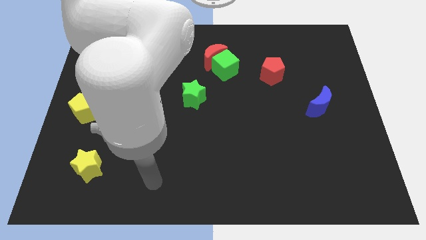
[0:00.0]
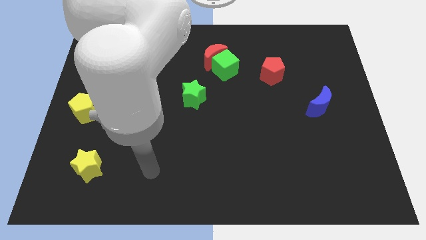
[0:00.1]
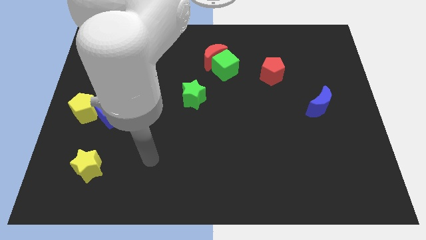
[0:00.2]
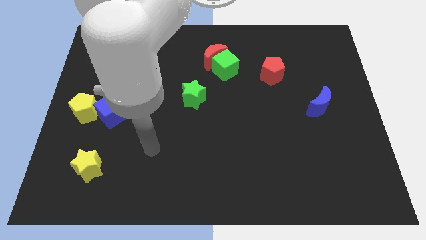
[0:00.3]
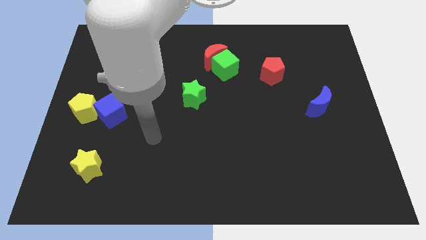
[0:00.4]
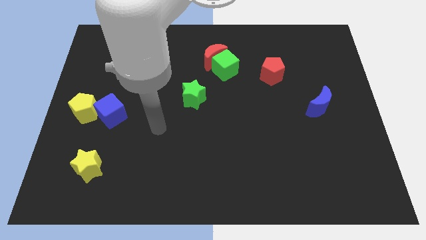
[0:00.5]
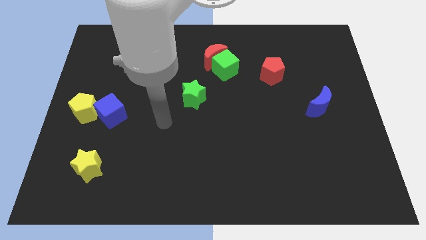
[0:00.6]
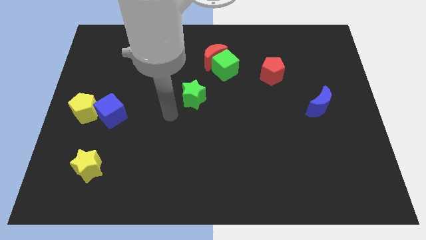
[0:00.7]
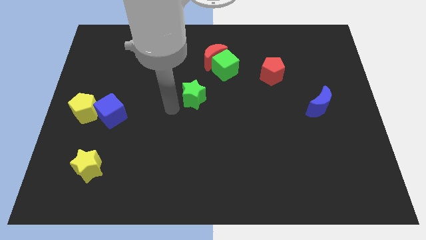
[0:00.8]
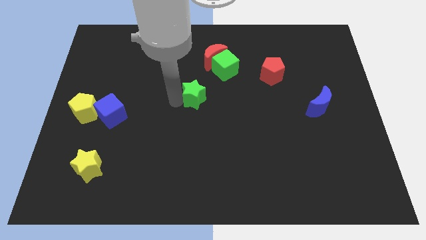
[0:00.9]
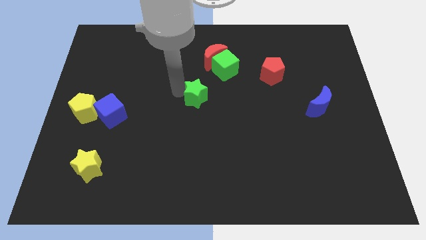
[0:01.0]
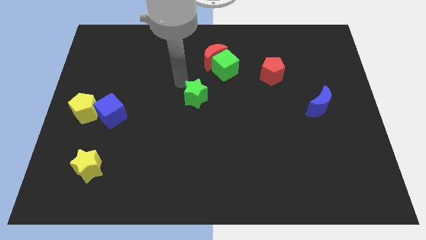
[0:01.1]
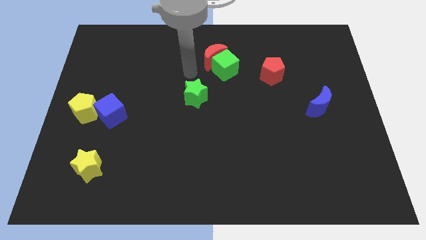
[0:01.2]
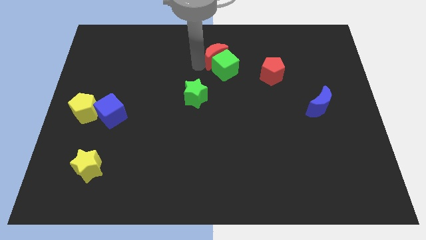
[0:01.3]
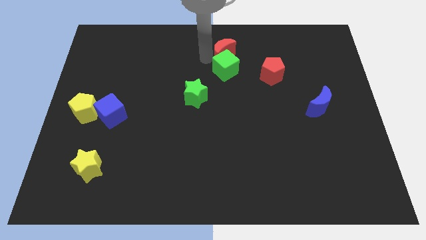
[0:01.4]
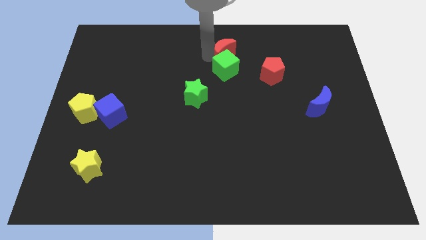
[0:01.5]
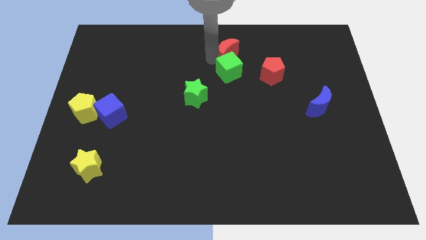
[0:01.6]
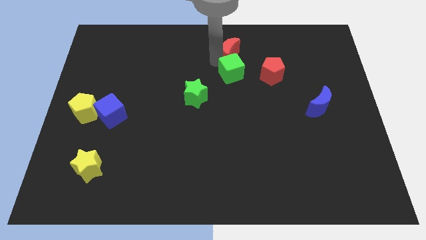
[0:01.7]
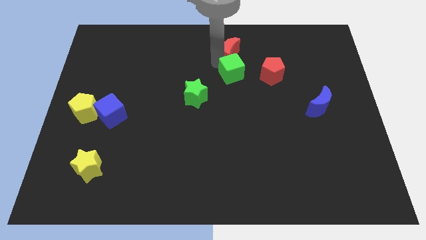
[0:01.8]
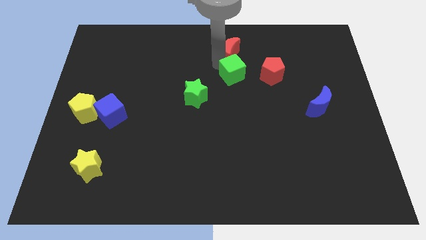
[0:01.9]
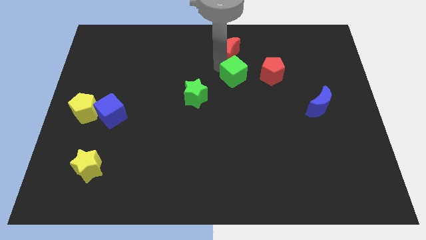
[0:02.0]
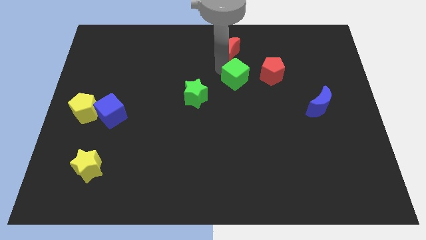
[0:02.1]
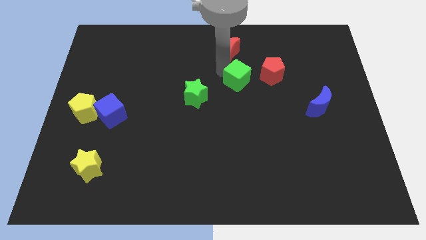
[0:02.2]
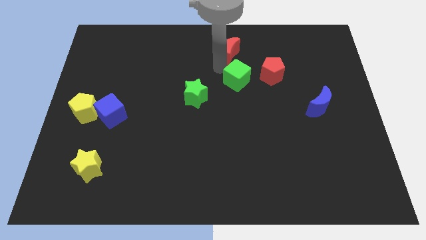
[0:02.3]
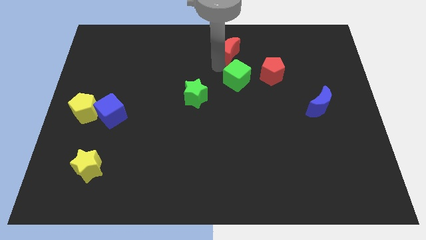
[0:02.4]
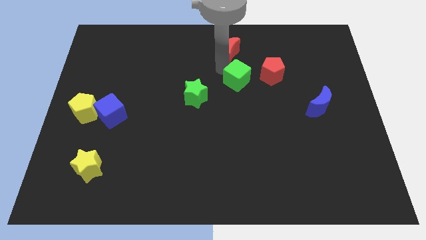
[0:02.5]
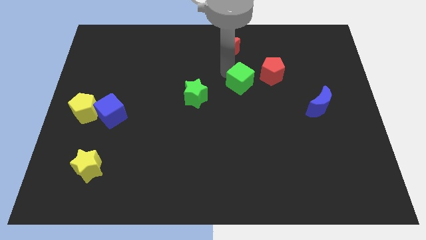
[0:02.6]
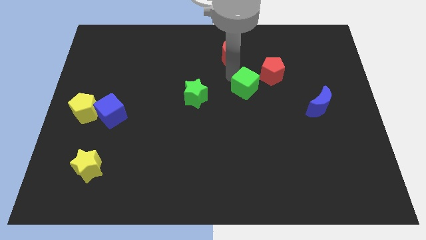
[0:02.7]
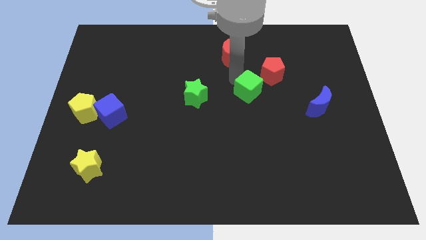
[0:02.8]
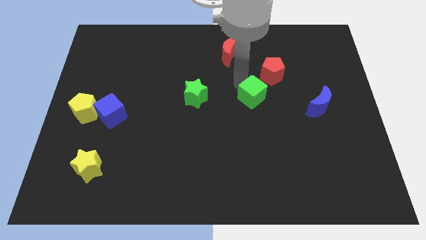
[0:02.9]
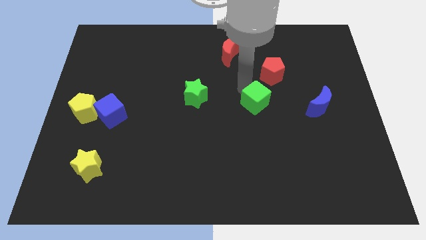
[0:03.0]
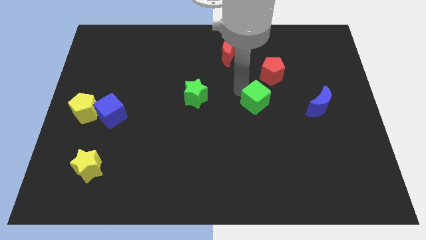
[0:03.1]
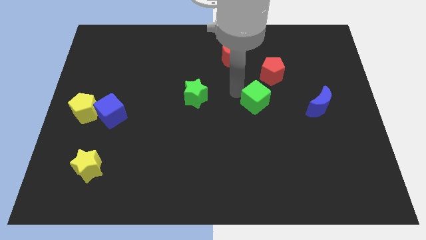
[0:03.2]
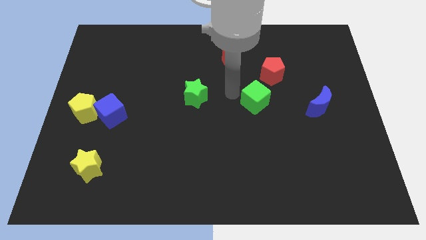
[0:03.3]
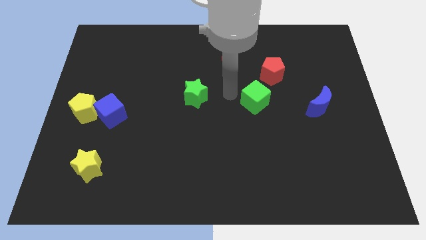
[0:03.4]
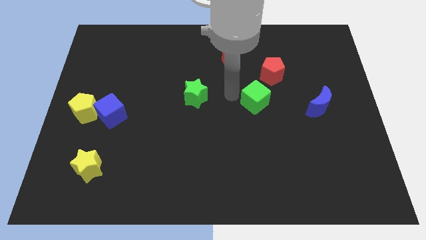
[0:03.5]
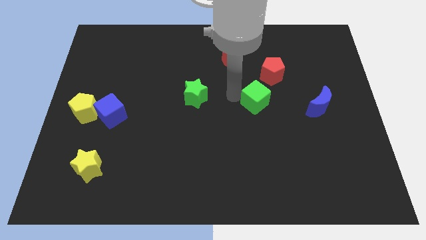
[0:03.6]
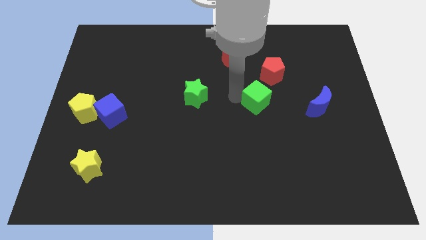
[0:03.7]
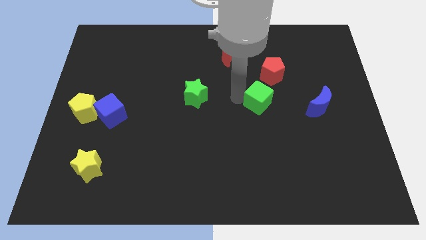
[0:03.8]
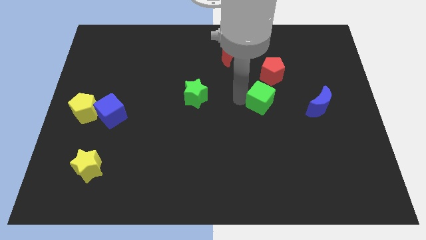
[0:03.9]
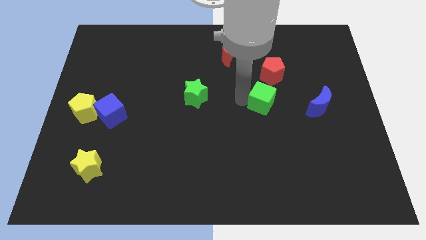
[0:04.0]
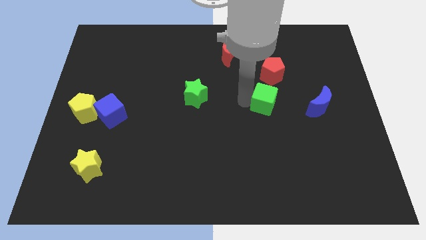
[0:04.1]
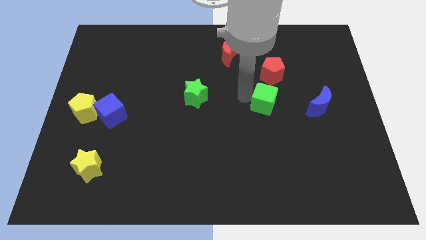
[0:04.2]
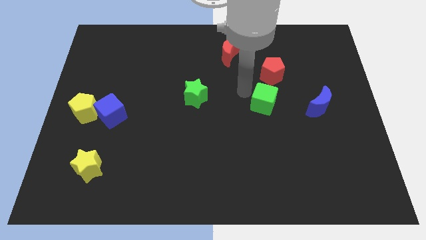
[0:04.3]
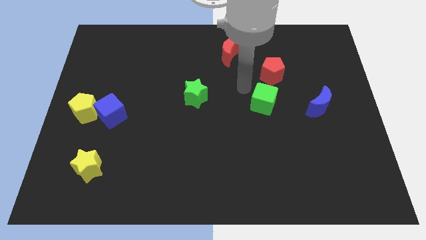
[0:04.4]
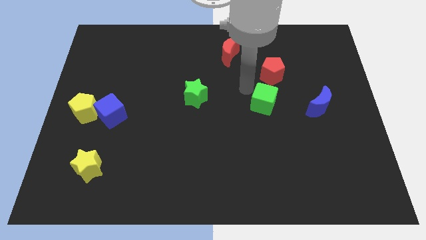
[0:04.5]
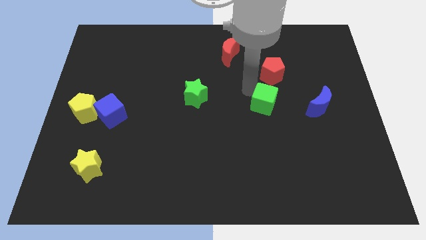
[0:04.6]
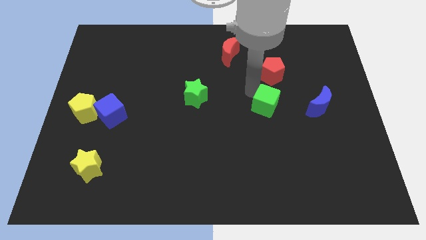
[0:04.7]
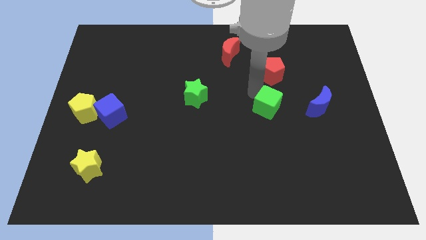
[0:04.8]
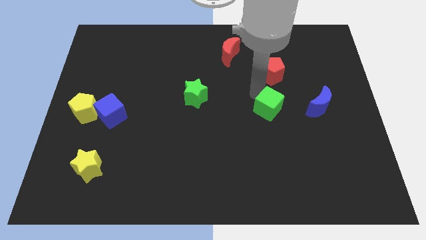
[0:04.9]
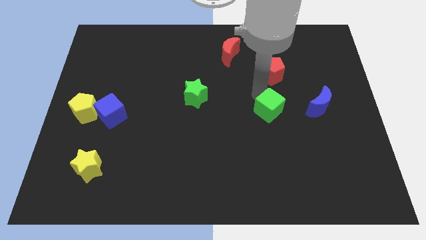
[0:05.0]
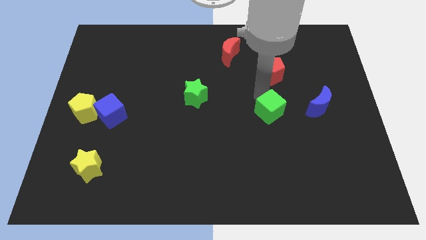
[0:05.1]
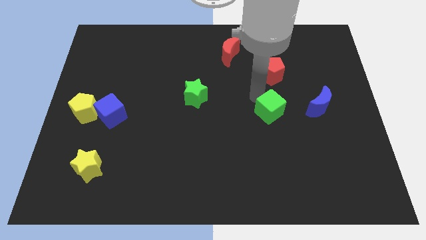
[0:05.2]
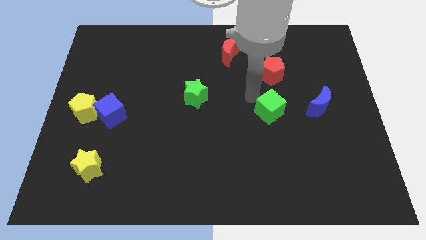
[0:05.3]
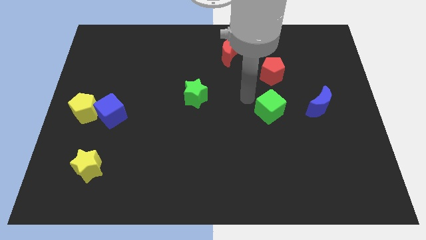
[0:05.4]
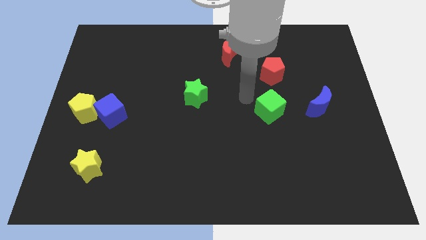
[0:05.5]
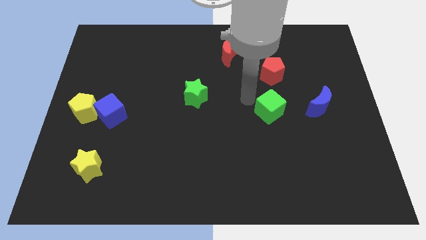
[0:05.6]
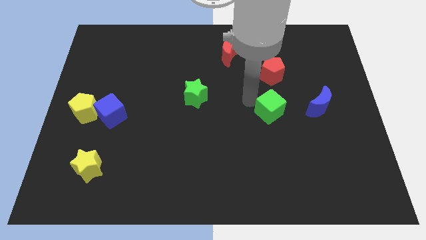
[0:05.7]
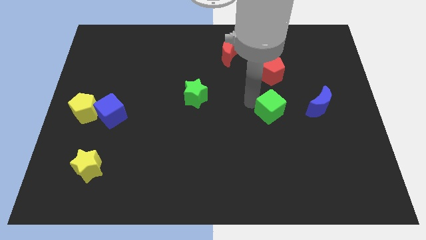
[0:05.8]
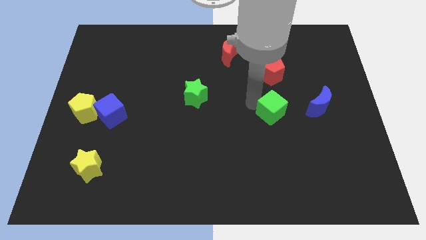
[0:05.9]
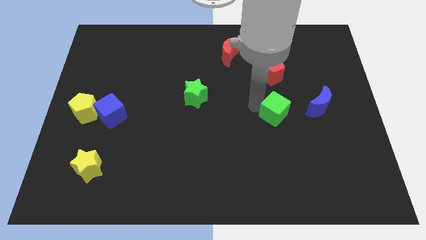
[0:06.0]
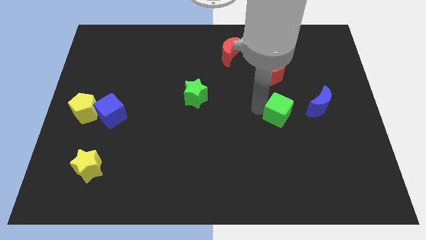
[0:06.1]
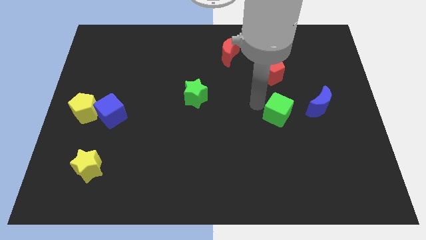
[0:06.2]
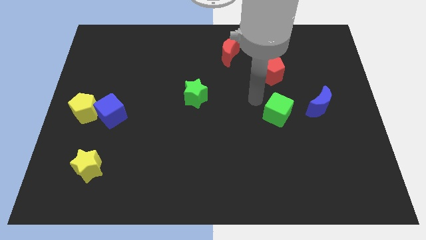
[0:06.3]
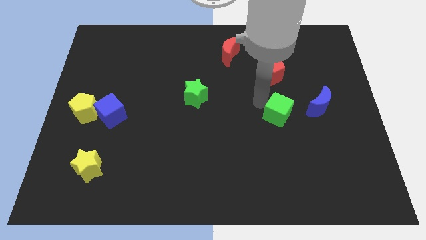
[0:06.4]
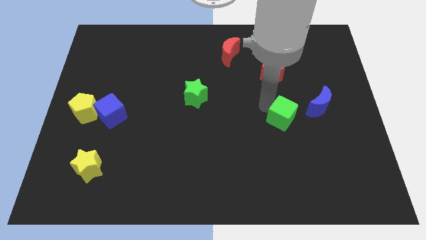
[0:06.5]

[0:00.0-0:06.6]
slide the green cube down and then to the right

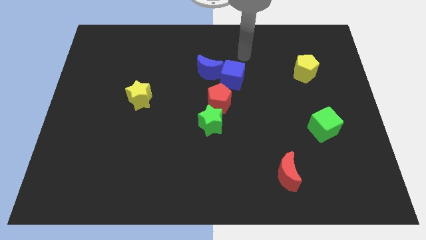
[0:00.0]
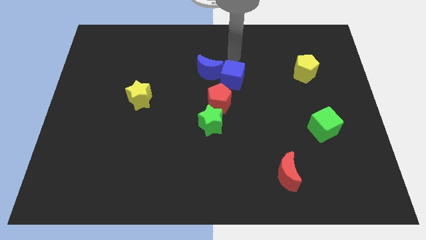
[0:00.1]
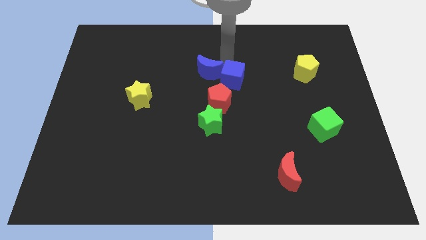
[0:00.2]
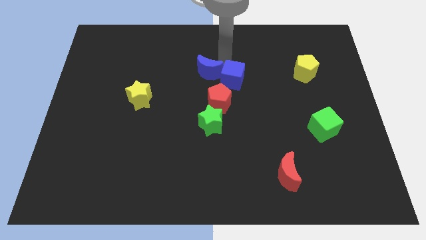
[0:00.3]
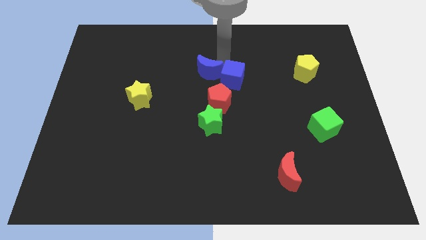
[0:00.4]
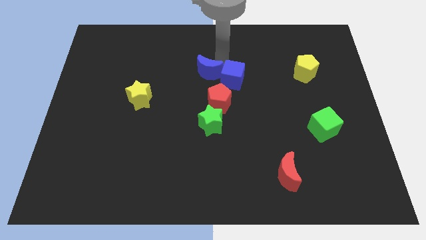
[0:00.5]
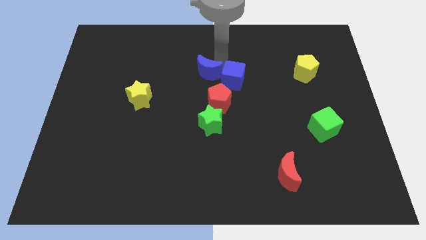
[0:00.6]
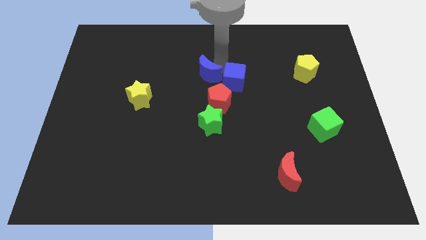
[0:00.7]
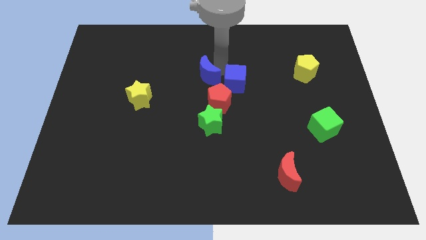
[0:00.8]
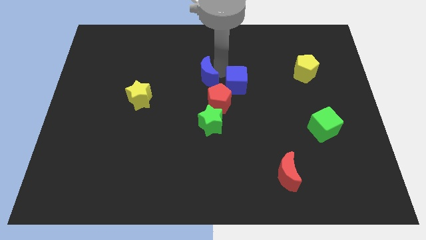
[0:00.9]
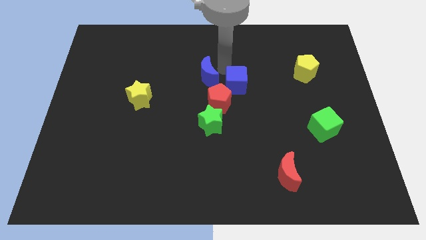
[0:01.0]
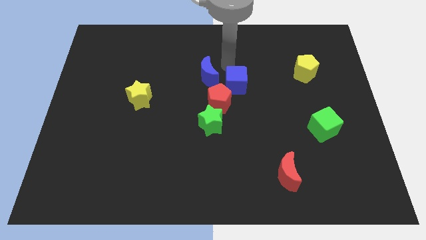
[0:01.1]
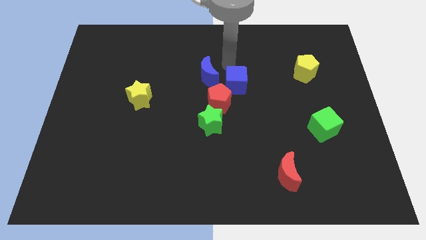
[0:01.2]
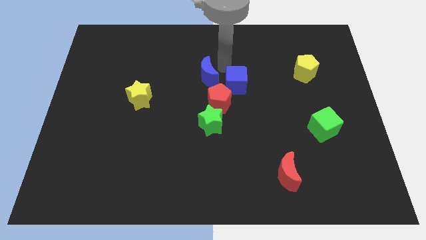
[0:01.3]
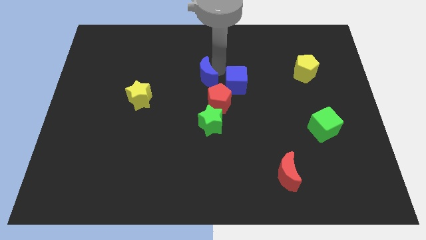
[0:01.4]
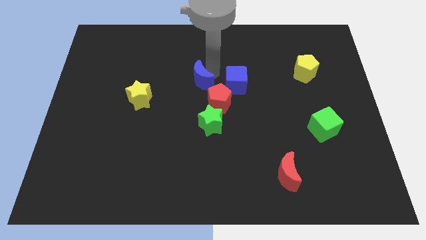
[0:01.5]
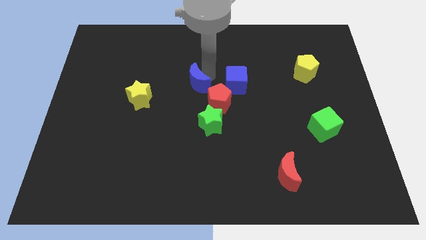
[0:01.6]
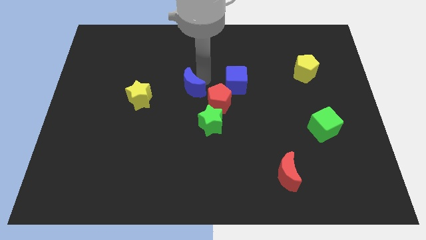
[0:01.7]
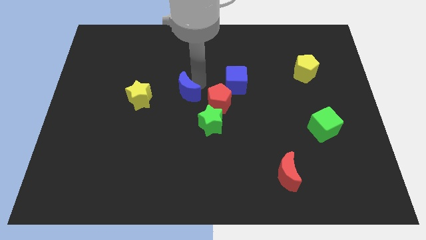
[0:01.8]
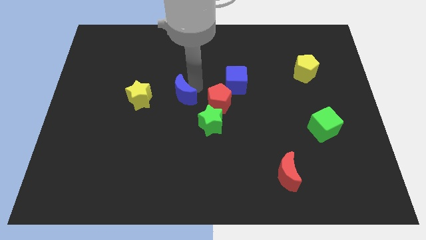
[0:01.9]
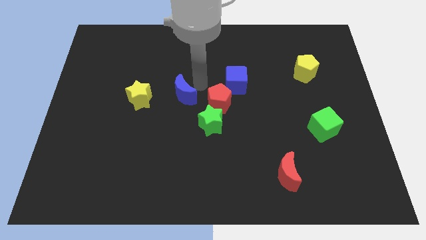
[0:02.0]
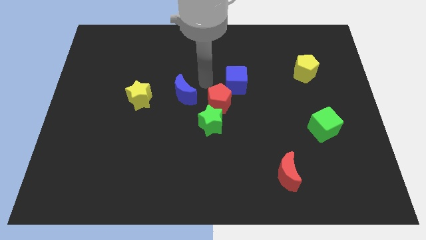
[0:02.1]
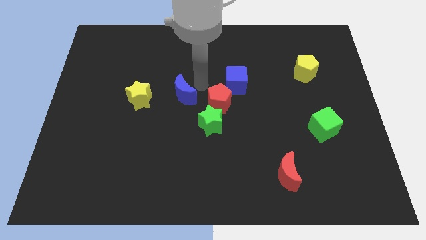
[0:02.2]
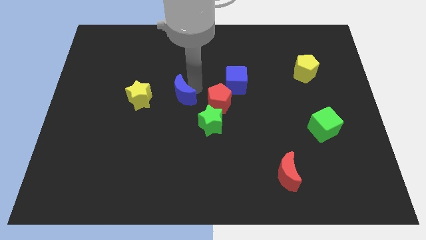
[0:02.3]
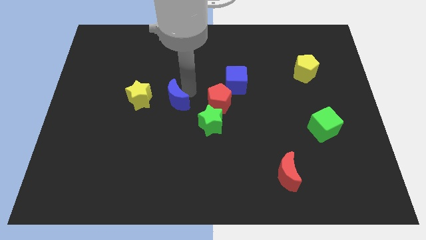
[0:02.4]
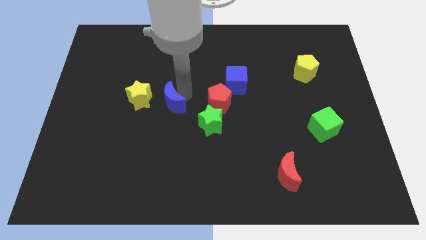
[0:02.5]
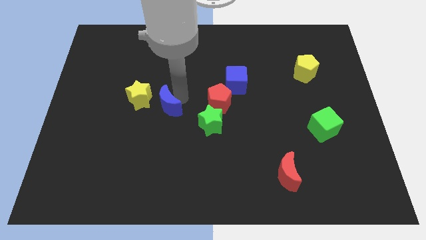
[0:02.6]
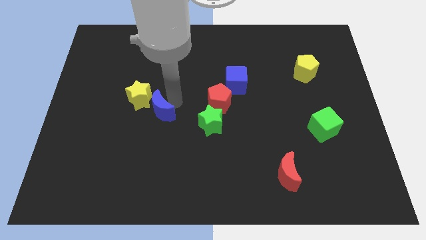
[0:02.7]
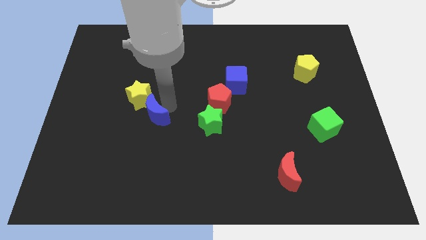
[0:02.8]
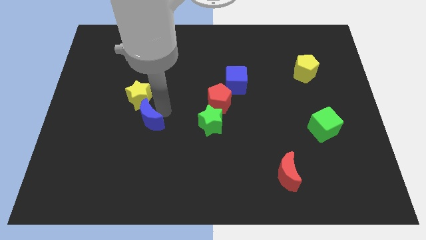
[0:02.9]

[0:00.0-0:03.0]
move the blue moon downwards and left
